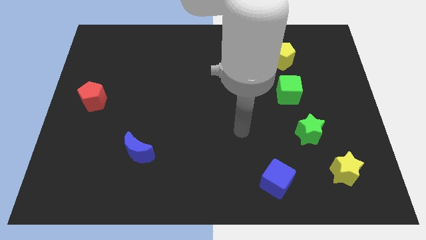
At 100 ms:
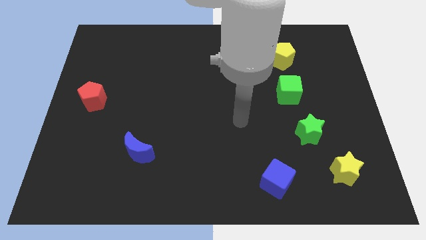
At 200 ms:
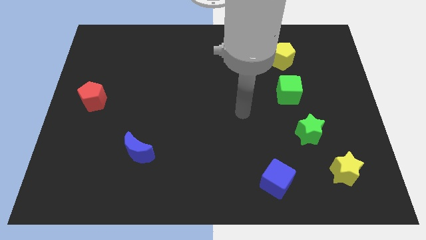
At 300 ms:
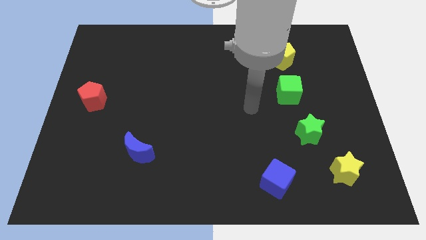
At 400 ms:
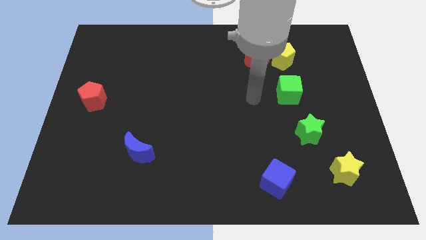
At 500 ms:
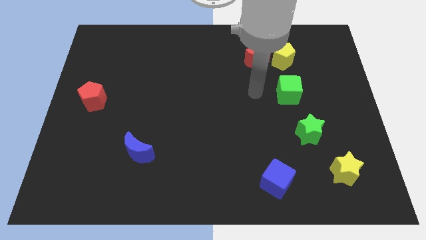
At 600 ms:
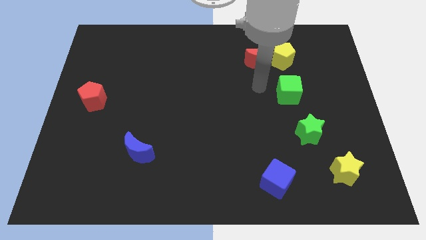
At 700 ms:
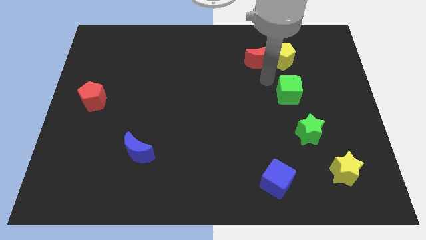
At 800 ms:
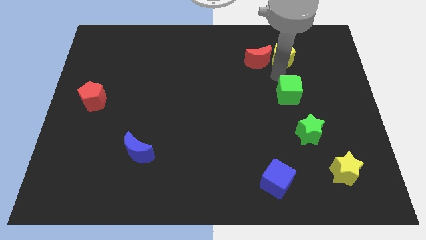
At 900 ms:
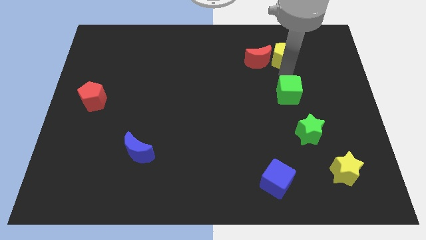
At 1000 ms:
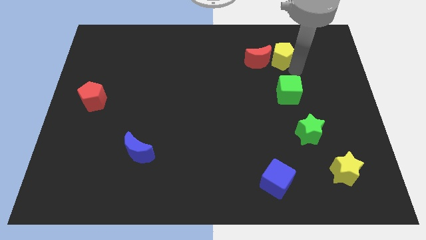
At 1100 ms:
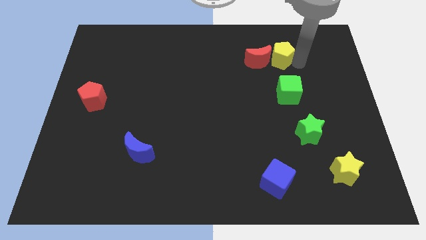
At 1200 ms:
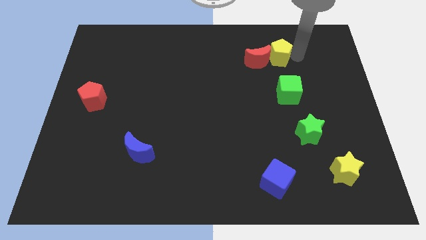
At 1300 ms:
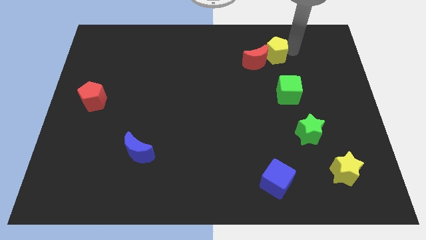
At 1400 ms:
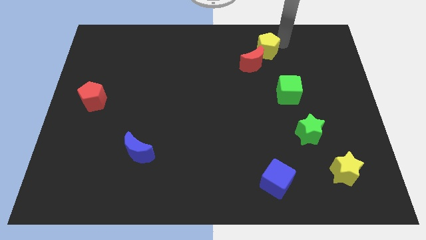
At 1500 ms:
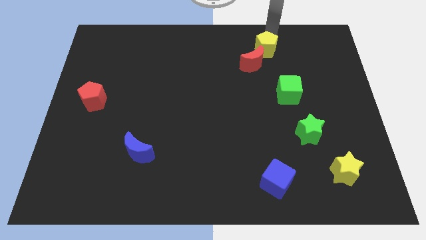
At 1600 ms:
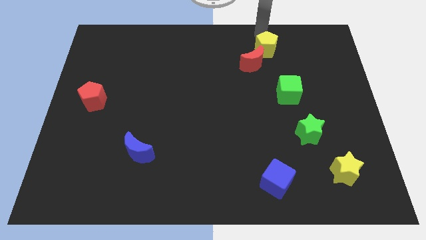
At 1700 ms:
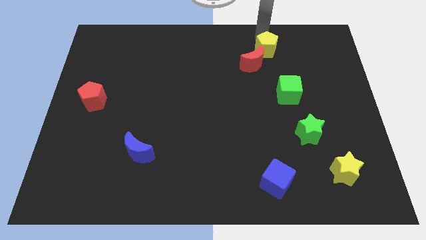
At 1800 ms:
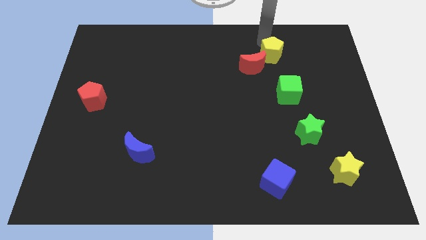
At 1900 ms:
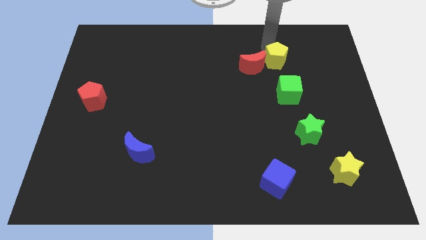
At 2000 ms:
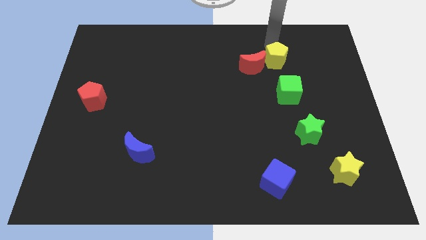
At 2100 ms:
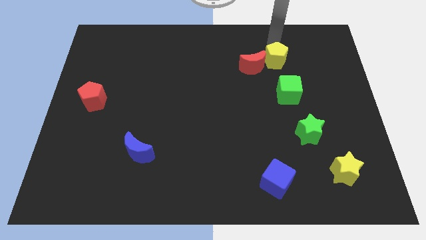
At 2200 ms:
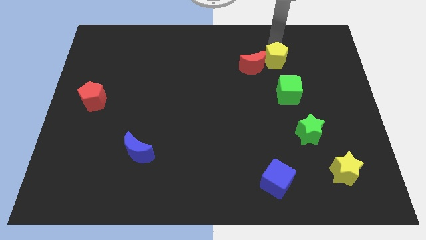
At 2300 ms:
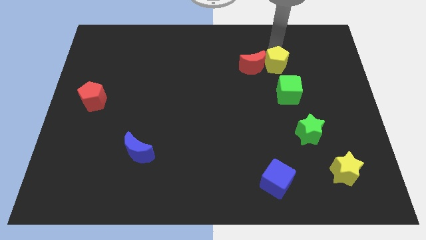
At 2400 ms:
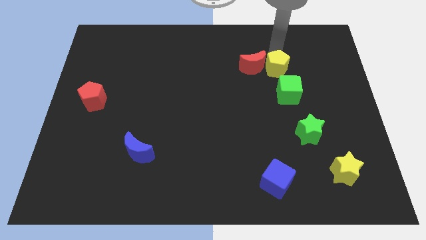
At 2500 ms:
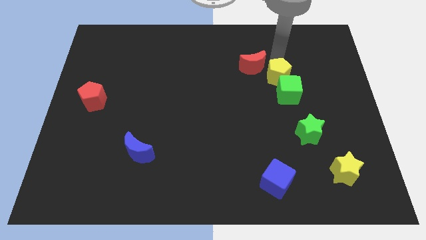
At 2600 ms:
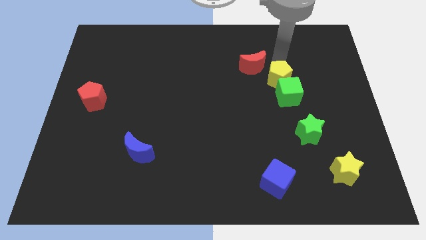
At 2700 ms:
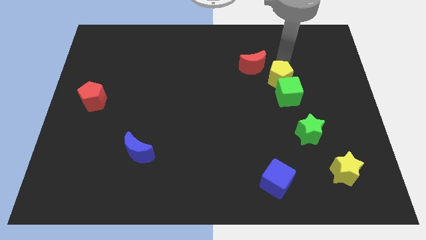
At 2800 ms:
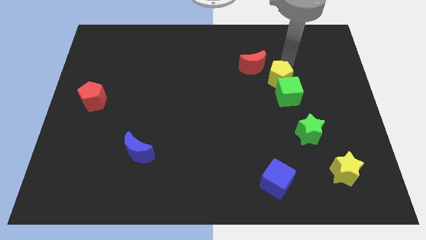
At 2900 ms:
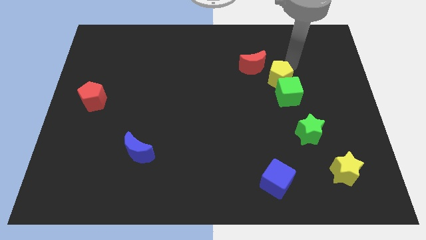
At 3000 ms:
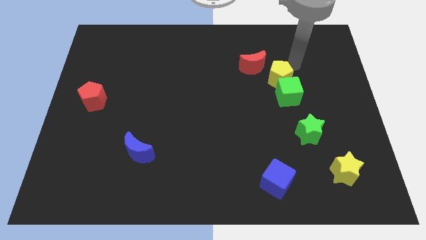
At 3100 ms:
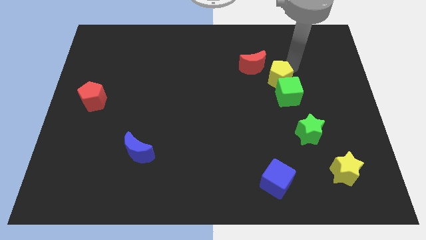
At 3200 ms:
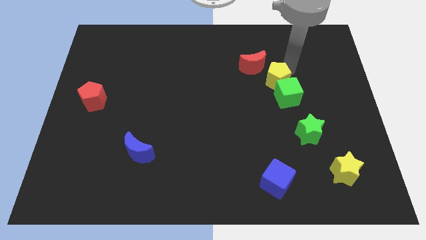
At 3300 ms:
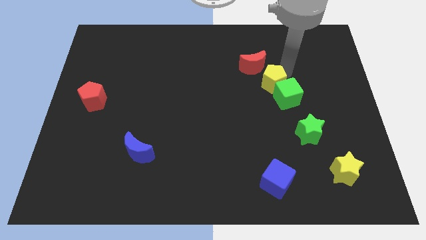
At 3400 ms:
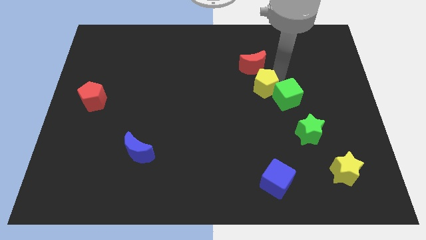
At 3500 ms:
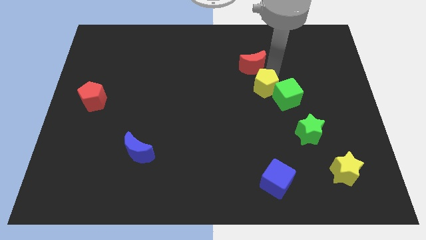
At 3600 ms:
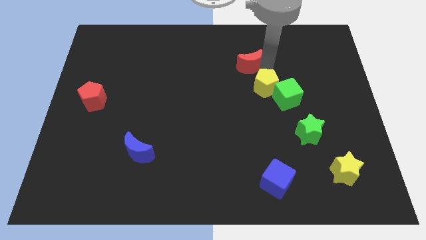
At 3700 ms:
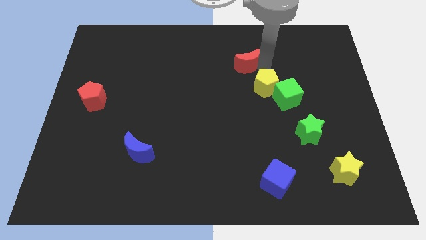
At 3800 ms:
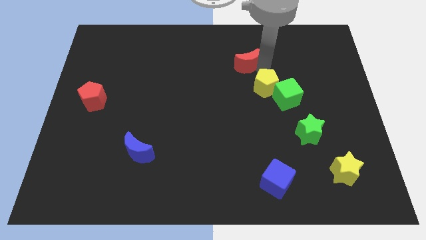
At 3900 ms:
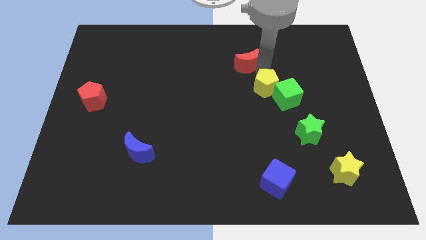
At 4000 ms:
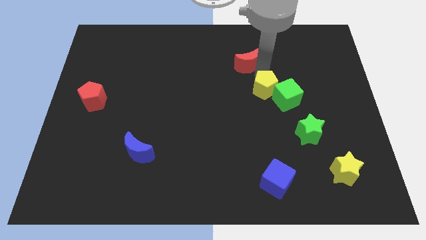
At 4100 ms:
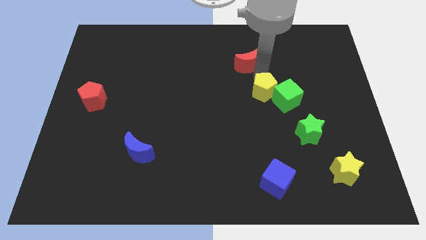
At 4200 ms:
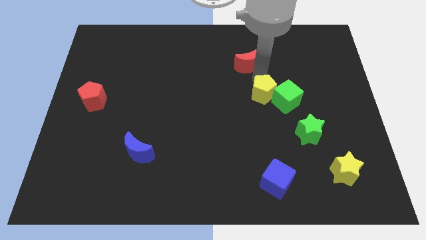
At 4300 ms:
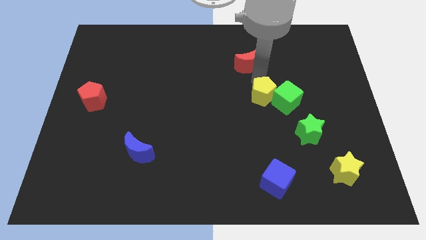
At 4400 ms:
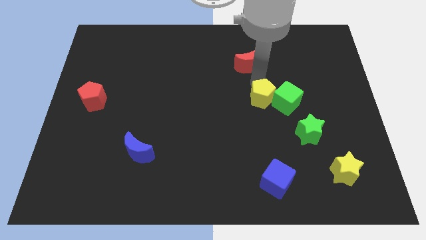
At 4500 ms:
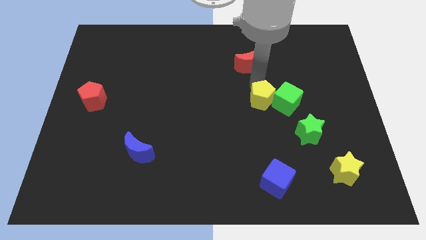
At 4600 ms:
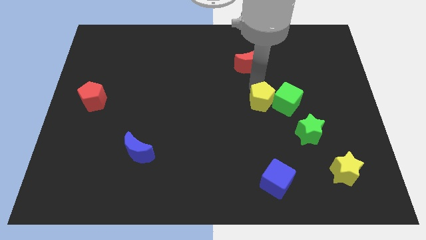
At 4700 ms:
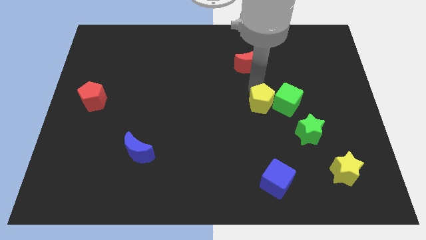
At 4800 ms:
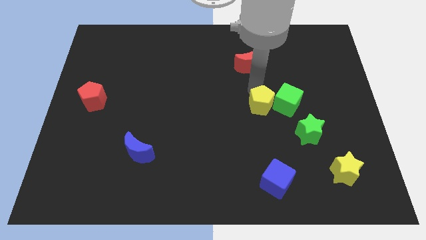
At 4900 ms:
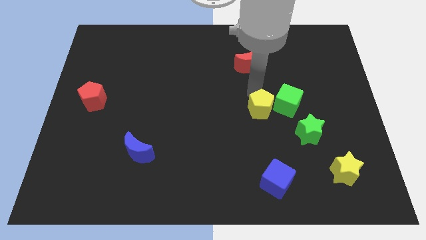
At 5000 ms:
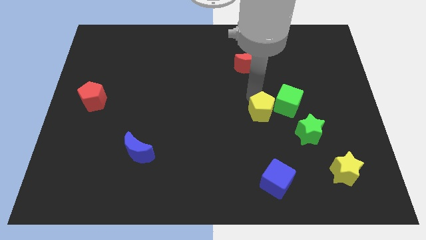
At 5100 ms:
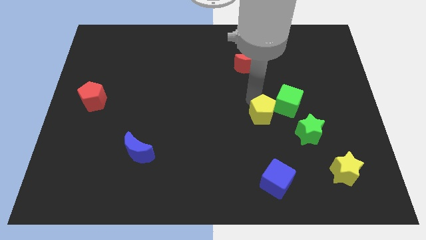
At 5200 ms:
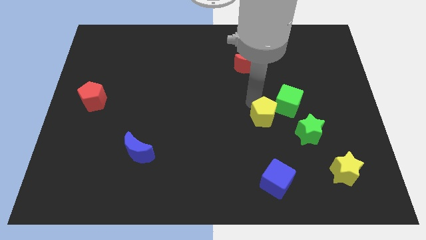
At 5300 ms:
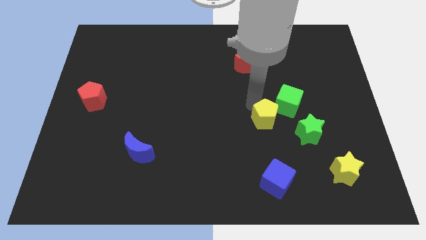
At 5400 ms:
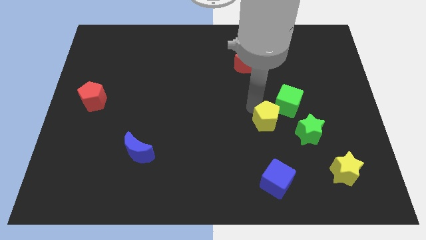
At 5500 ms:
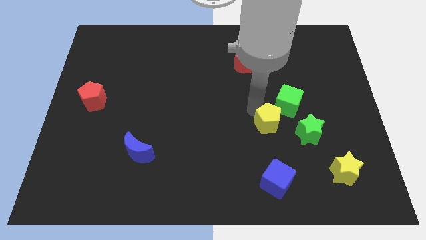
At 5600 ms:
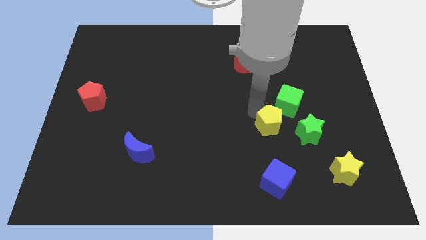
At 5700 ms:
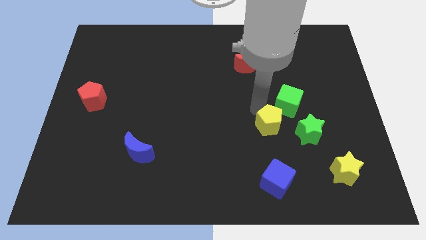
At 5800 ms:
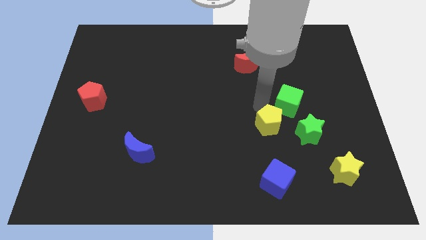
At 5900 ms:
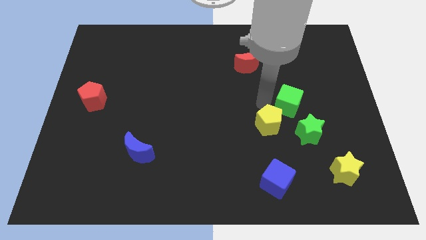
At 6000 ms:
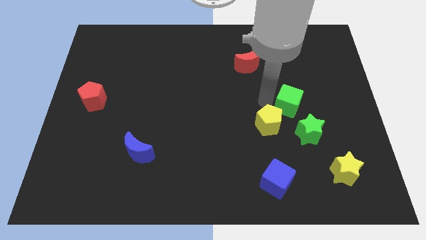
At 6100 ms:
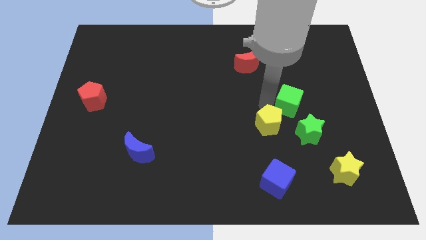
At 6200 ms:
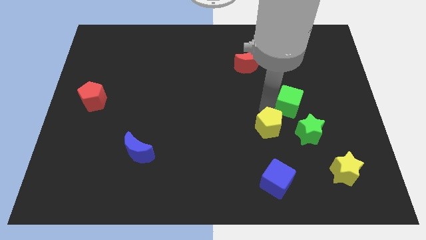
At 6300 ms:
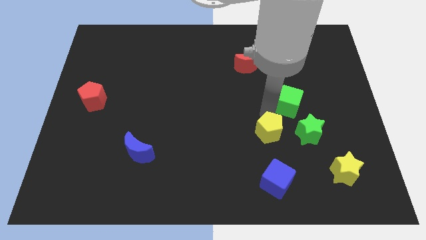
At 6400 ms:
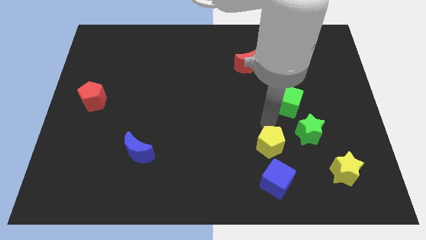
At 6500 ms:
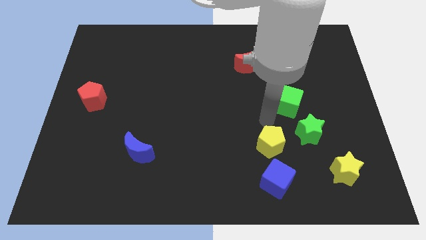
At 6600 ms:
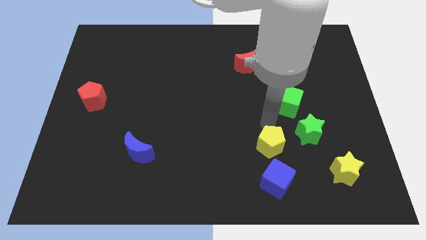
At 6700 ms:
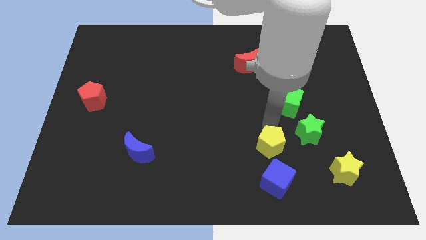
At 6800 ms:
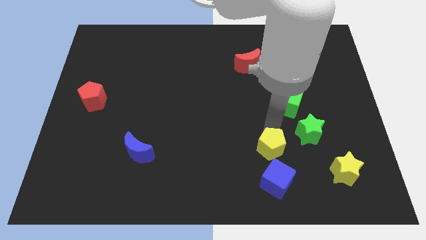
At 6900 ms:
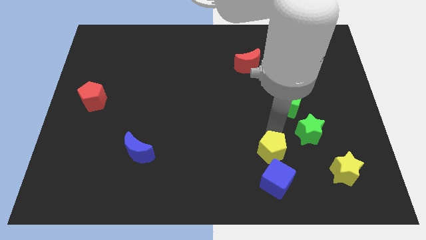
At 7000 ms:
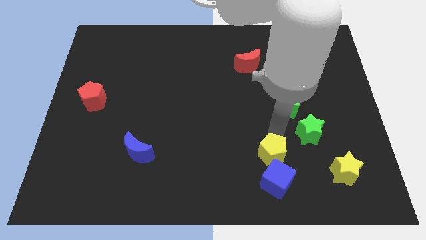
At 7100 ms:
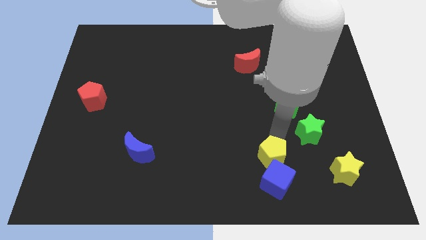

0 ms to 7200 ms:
move the yellow pentagon towards the blue cube
